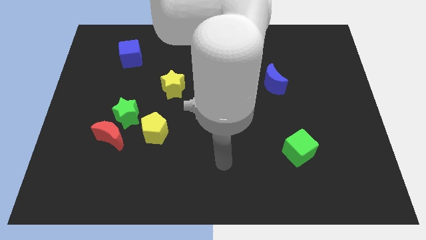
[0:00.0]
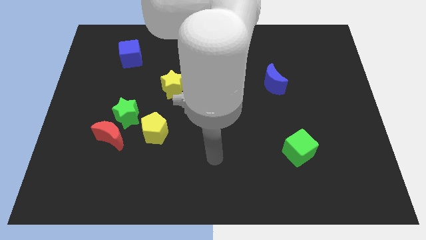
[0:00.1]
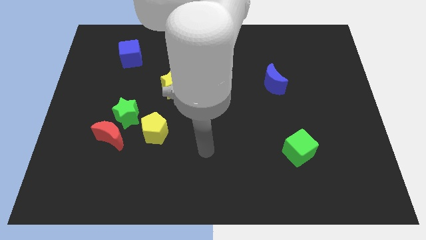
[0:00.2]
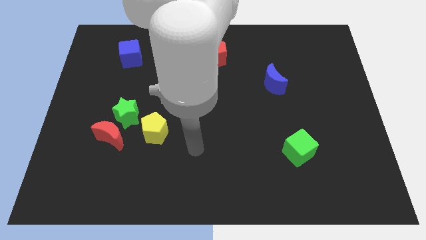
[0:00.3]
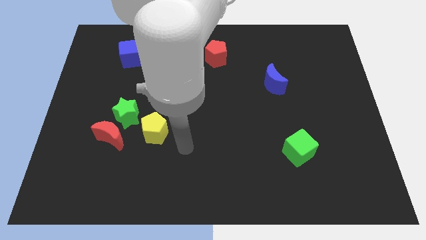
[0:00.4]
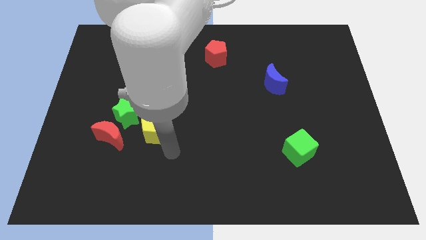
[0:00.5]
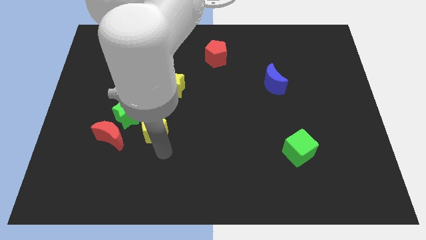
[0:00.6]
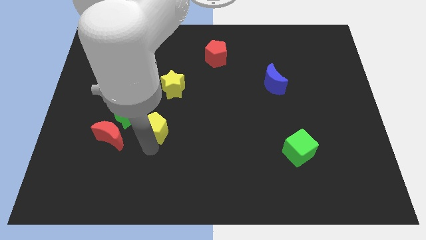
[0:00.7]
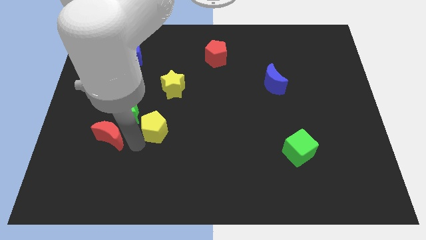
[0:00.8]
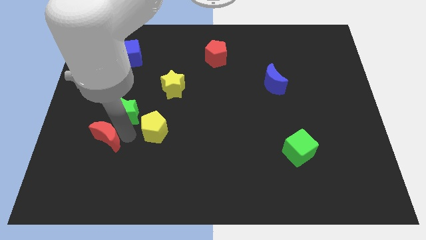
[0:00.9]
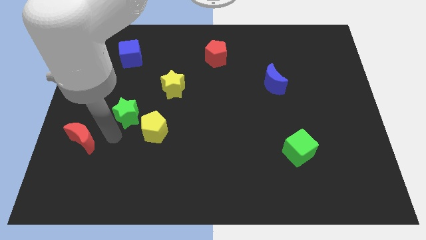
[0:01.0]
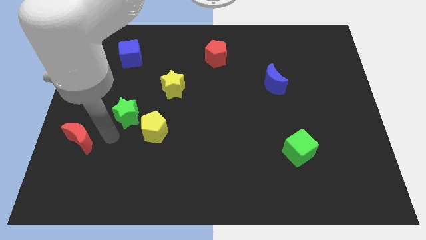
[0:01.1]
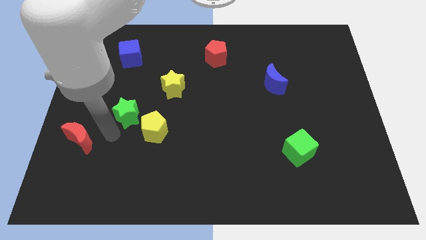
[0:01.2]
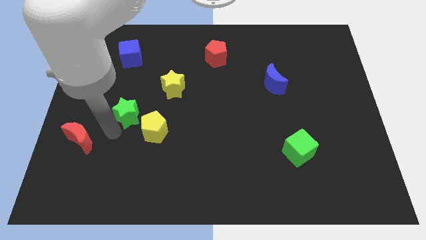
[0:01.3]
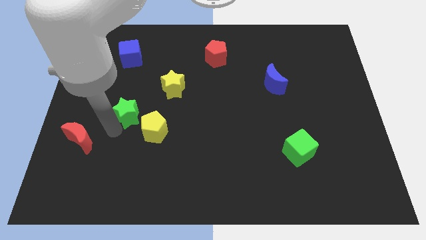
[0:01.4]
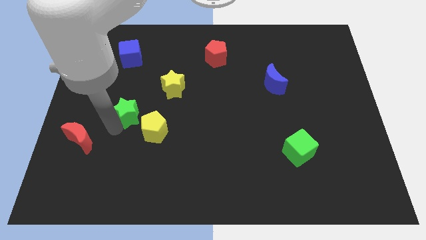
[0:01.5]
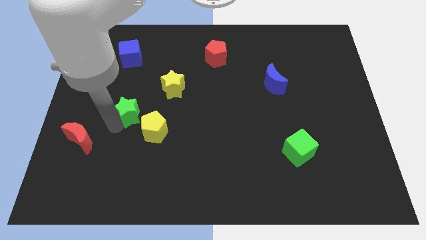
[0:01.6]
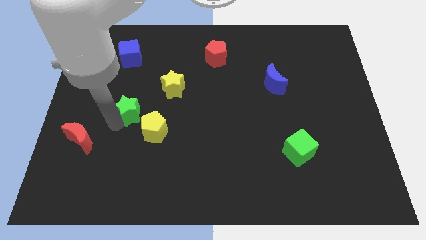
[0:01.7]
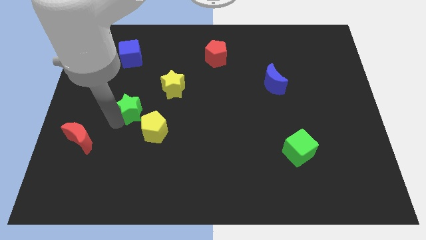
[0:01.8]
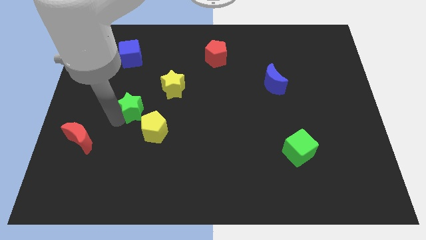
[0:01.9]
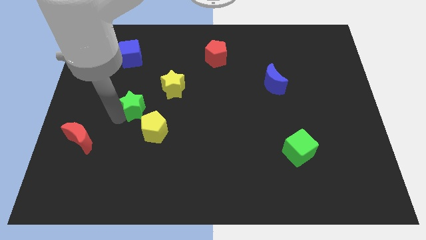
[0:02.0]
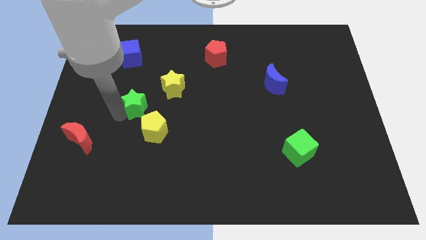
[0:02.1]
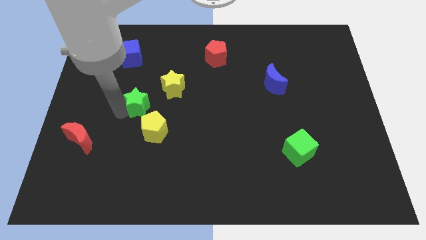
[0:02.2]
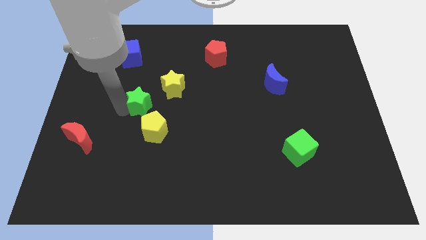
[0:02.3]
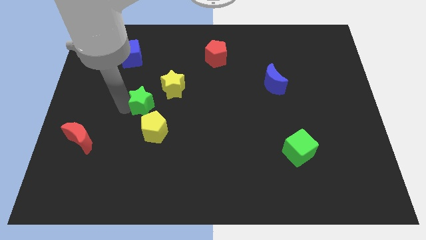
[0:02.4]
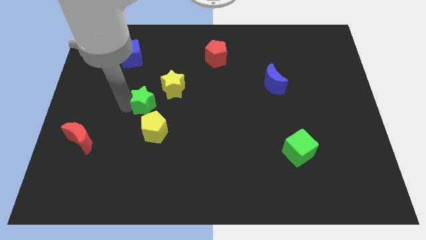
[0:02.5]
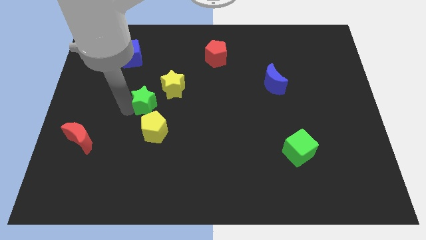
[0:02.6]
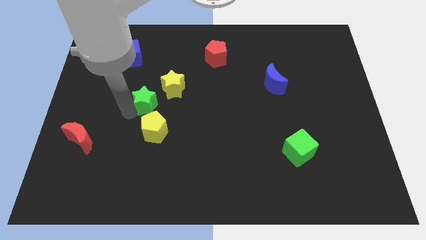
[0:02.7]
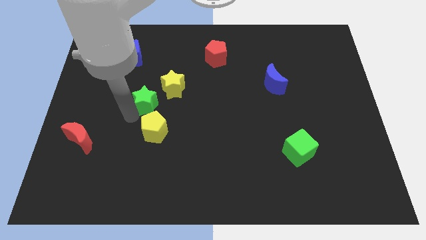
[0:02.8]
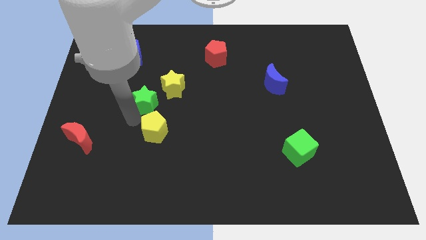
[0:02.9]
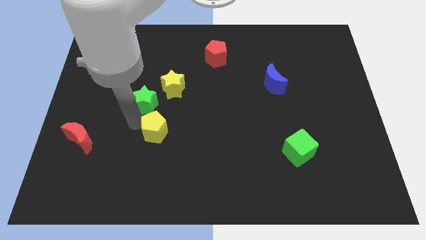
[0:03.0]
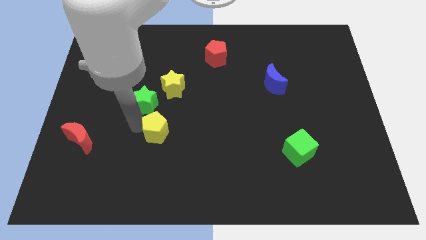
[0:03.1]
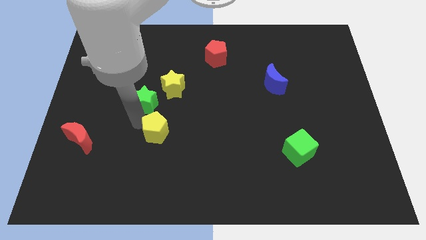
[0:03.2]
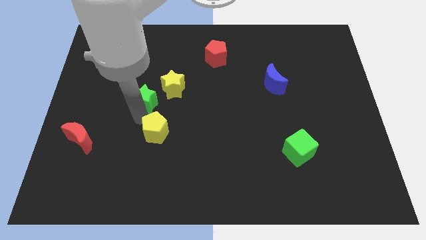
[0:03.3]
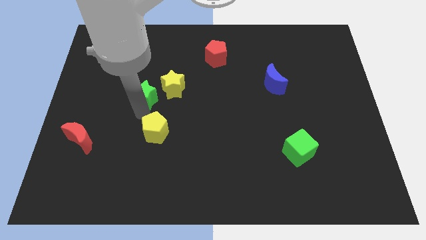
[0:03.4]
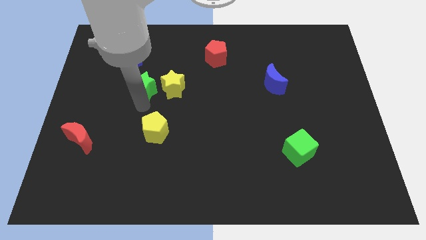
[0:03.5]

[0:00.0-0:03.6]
slightly push the green star upwards and right diagonally

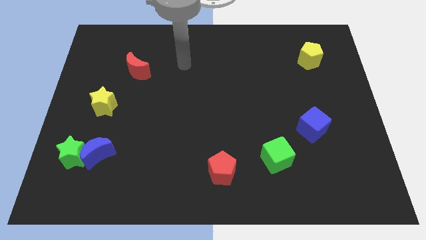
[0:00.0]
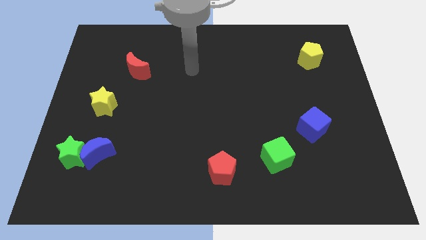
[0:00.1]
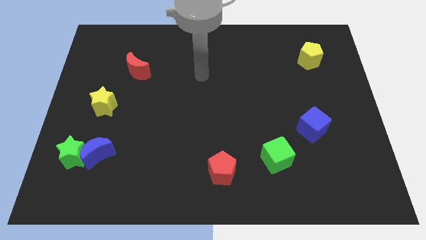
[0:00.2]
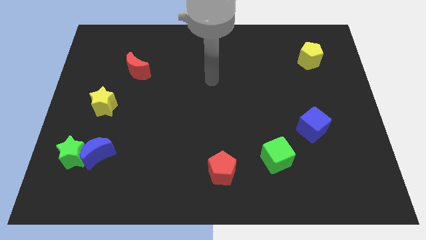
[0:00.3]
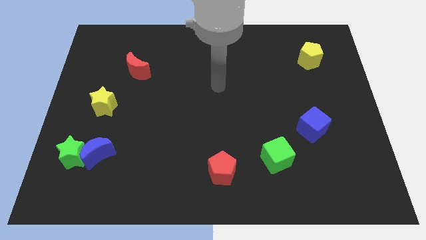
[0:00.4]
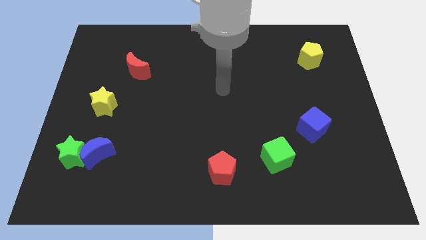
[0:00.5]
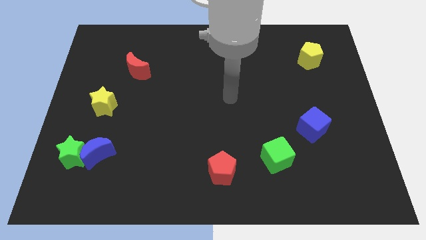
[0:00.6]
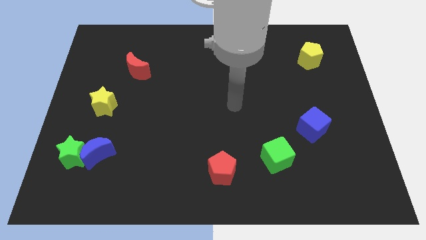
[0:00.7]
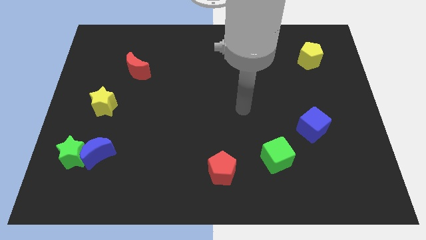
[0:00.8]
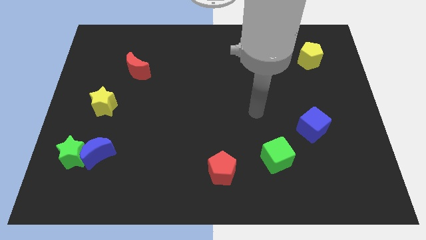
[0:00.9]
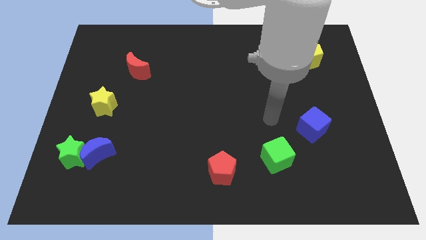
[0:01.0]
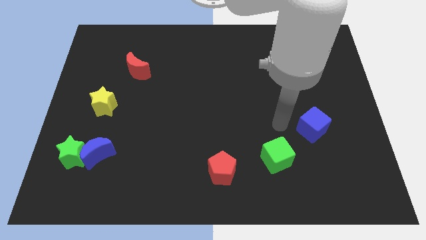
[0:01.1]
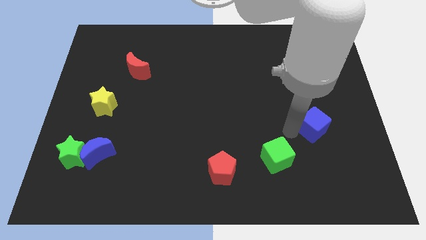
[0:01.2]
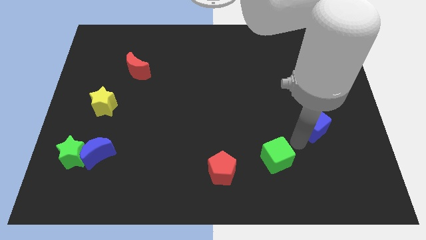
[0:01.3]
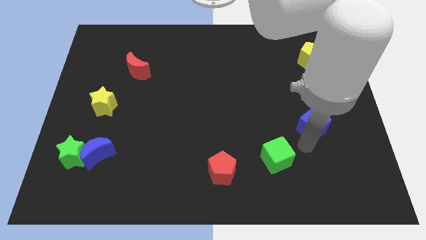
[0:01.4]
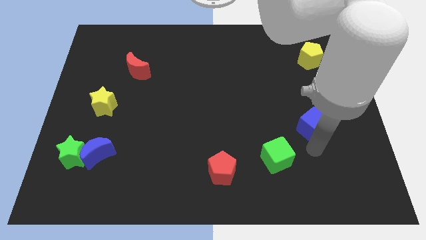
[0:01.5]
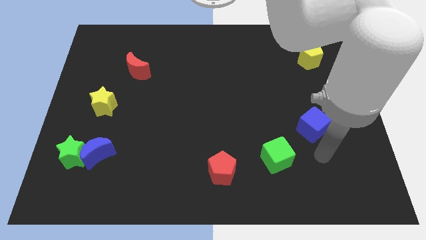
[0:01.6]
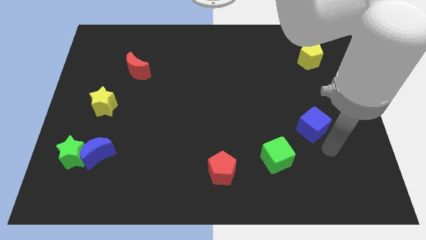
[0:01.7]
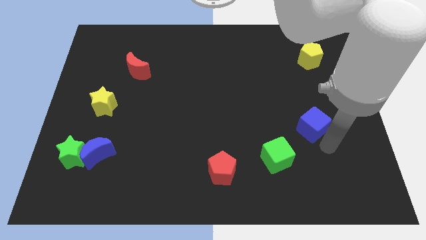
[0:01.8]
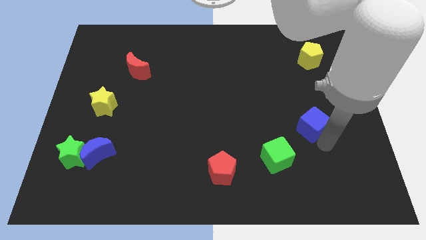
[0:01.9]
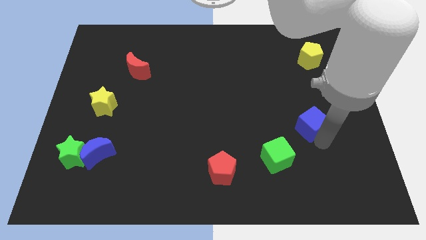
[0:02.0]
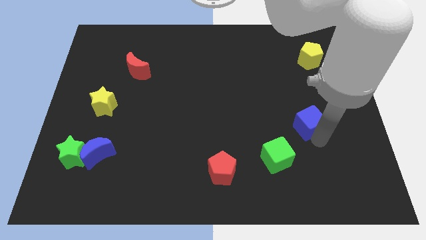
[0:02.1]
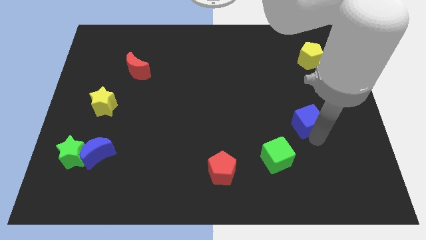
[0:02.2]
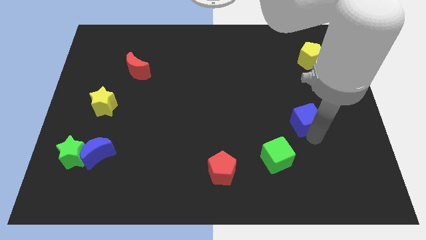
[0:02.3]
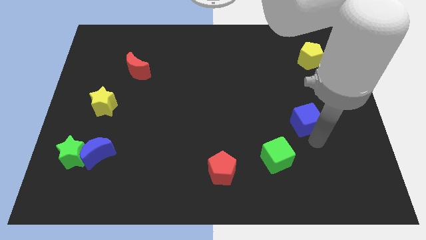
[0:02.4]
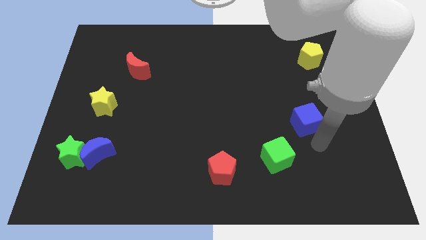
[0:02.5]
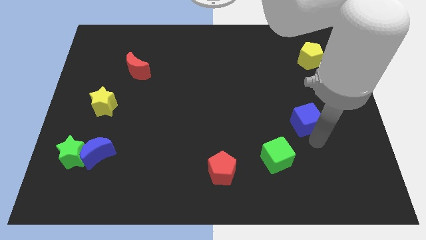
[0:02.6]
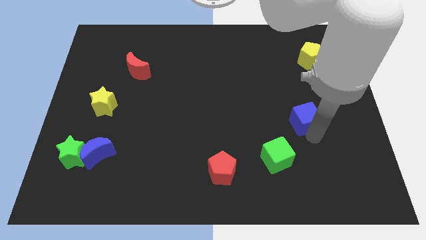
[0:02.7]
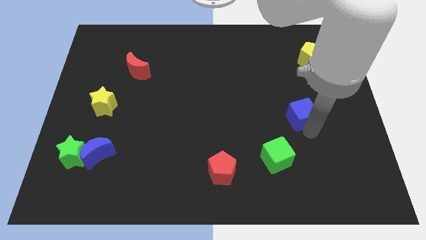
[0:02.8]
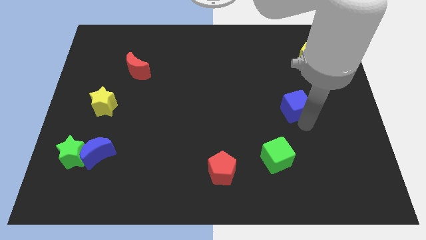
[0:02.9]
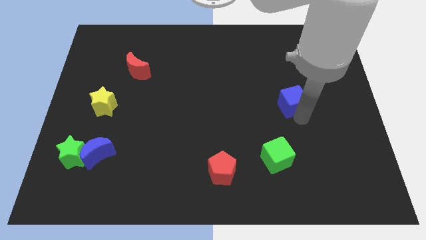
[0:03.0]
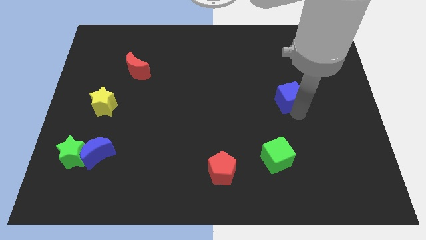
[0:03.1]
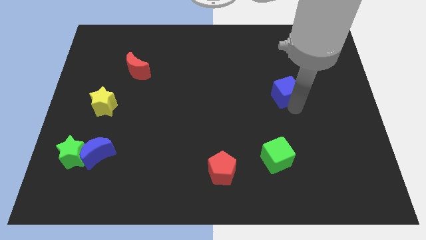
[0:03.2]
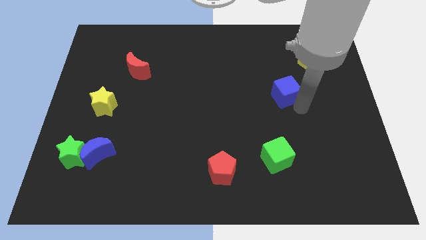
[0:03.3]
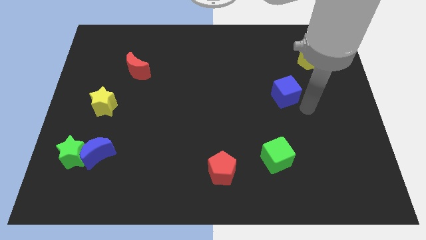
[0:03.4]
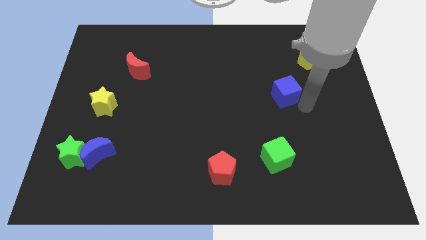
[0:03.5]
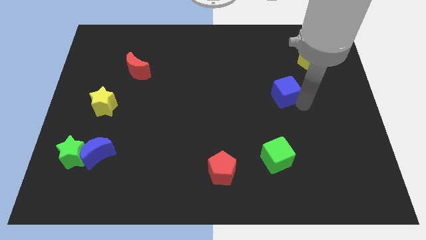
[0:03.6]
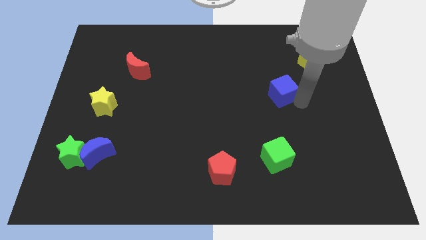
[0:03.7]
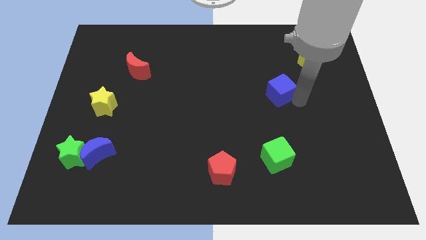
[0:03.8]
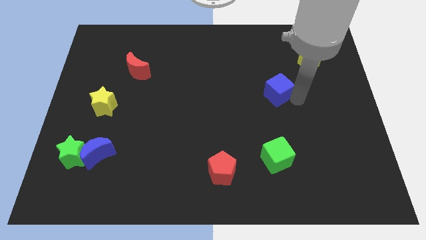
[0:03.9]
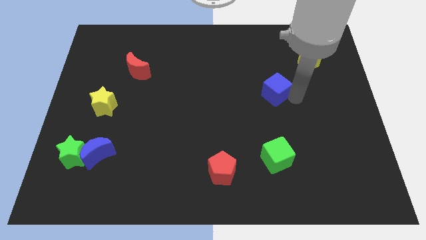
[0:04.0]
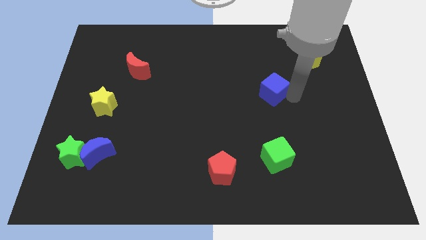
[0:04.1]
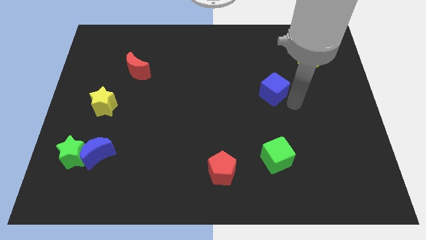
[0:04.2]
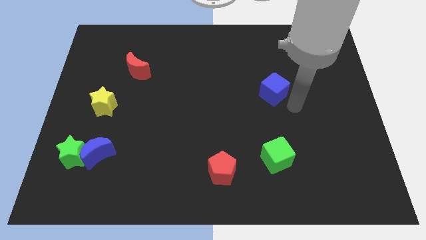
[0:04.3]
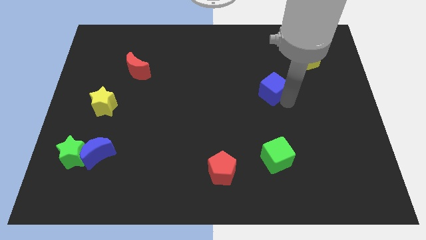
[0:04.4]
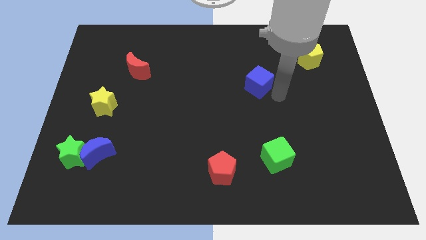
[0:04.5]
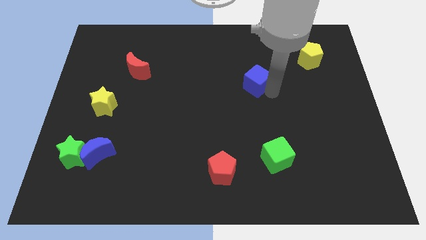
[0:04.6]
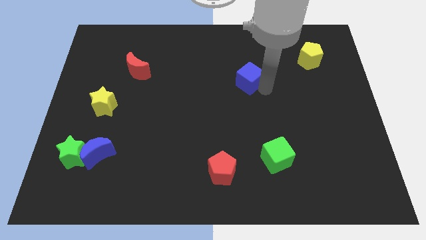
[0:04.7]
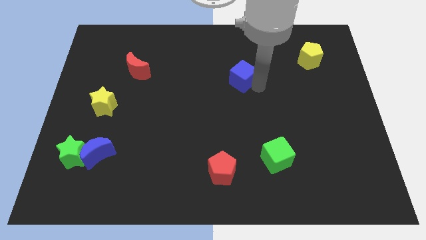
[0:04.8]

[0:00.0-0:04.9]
slide the blue cube upwards and then left
